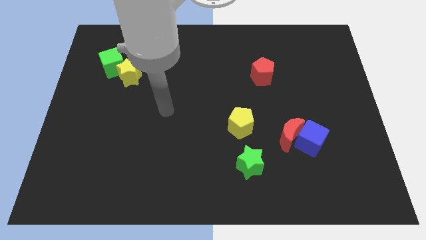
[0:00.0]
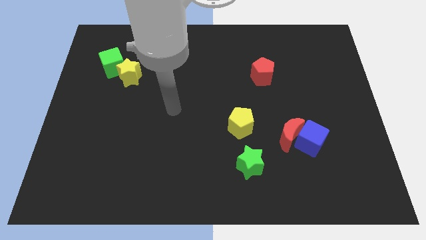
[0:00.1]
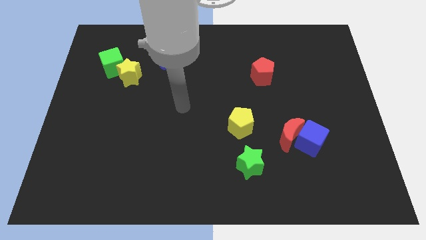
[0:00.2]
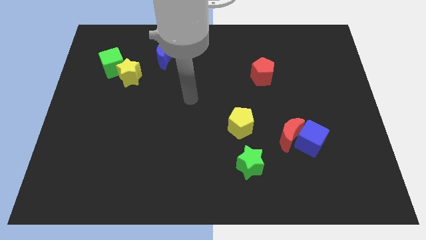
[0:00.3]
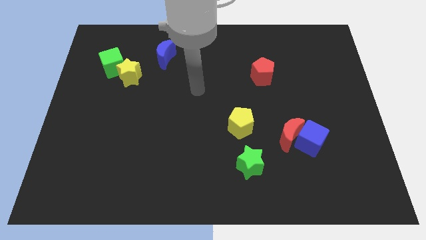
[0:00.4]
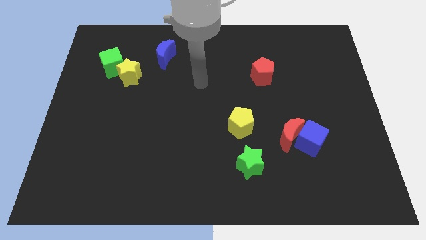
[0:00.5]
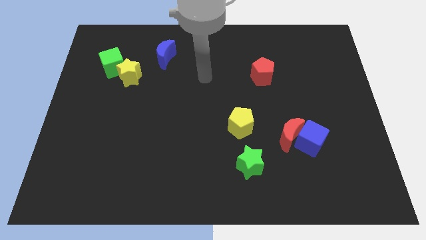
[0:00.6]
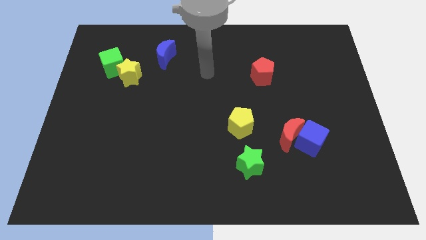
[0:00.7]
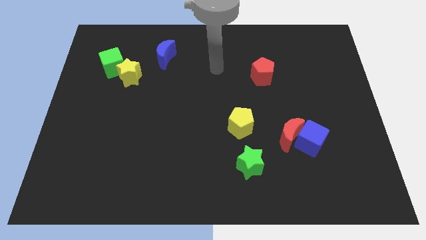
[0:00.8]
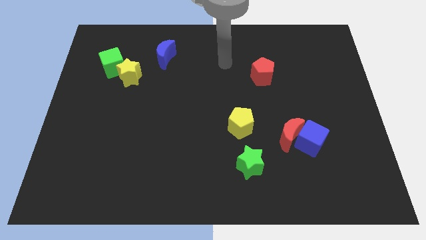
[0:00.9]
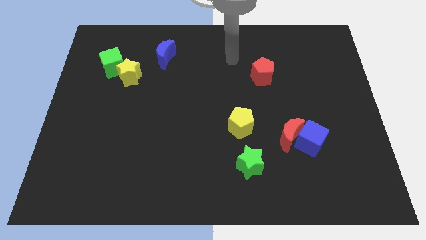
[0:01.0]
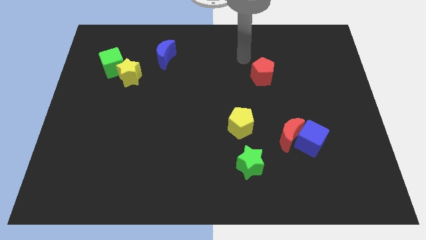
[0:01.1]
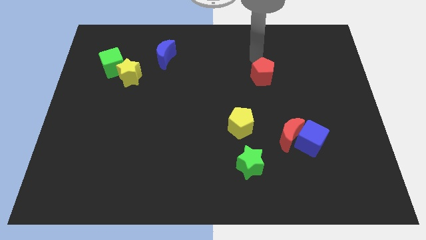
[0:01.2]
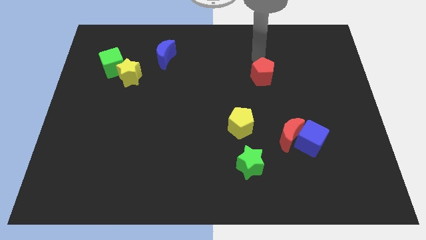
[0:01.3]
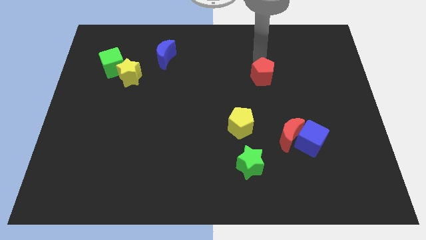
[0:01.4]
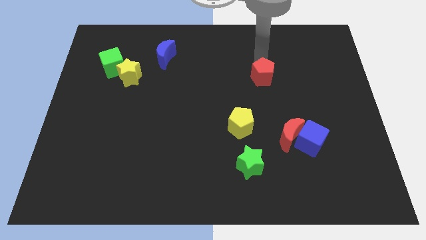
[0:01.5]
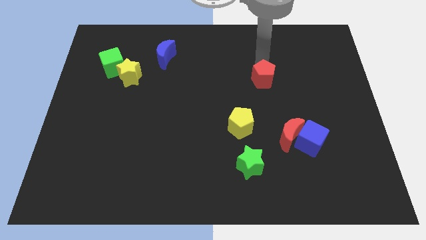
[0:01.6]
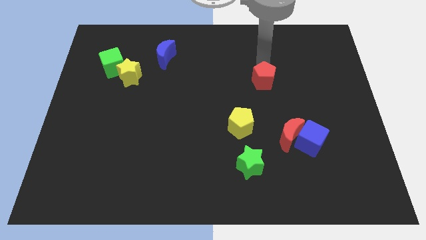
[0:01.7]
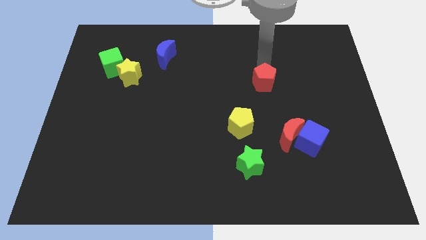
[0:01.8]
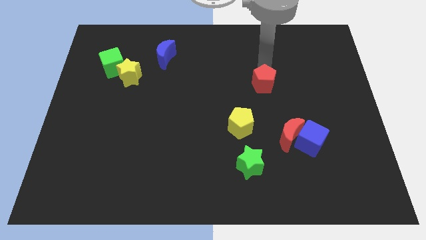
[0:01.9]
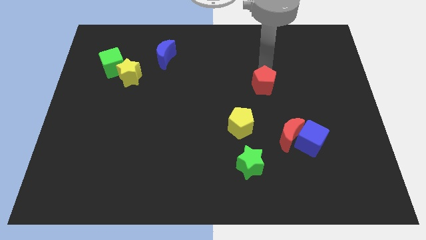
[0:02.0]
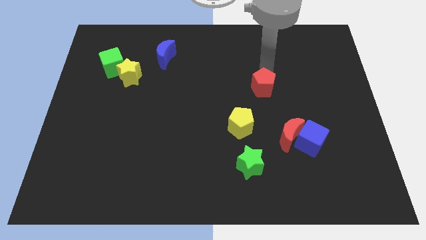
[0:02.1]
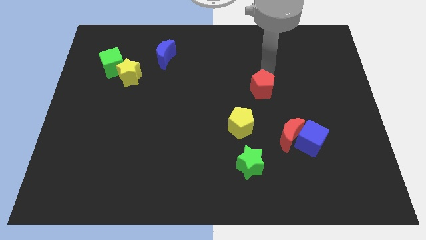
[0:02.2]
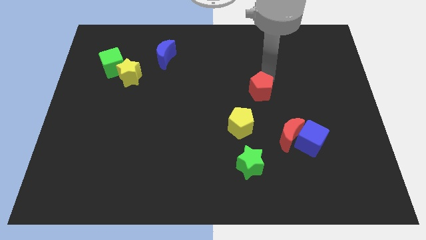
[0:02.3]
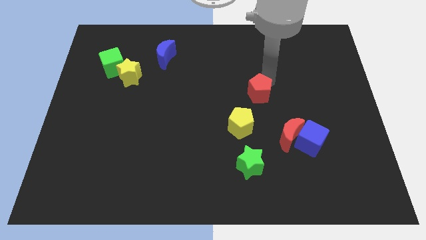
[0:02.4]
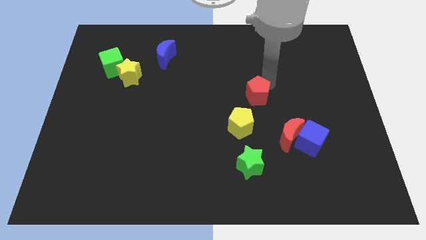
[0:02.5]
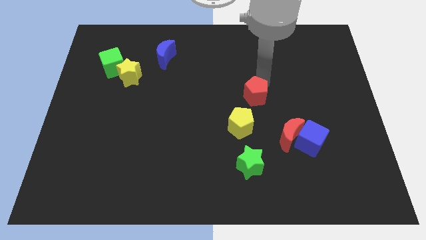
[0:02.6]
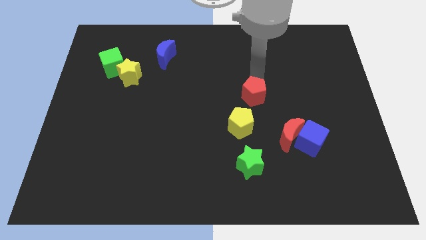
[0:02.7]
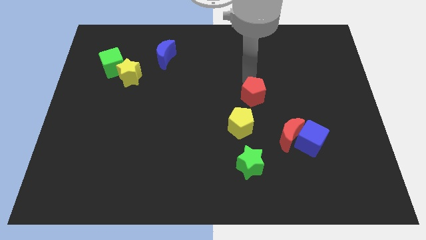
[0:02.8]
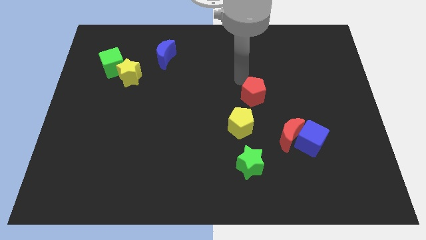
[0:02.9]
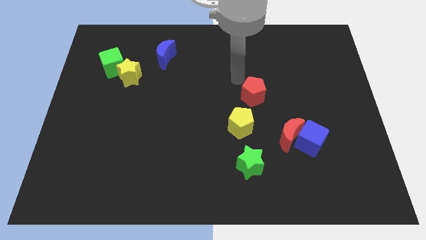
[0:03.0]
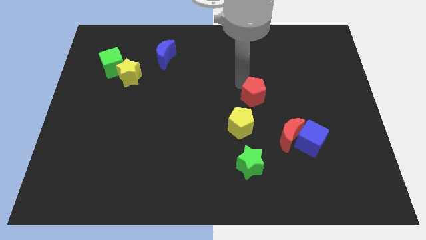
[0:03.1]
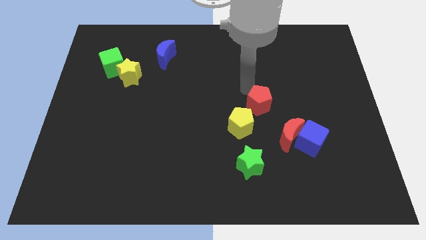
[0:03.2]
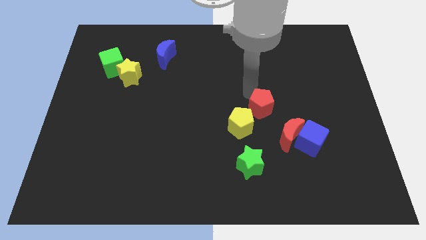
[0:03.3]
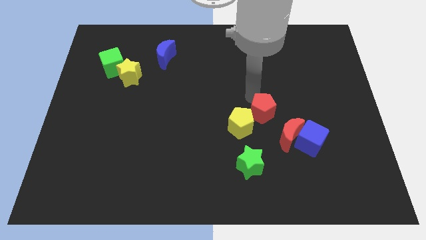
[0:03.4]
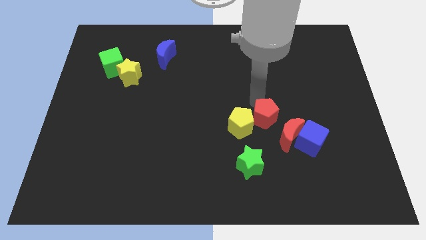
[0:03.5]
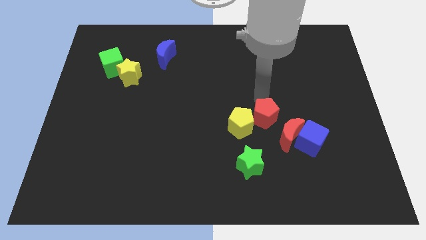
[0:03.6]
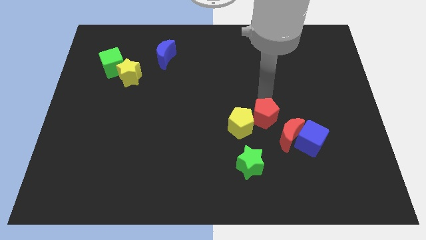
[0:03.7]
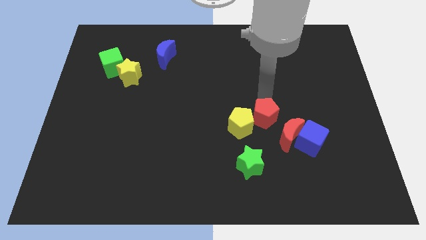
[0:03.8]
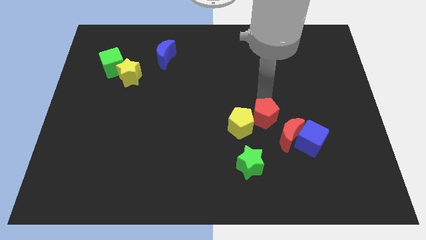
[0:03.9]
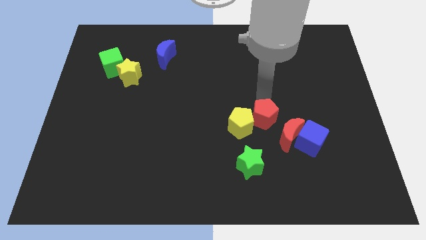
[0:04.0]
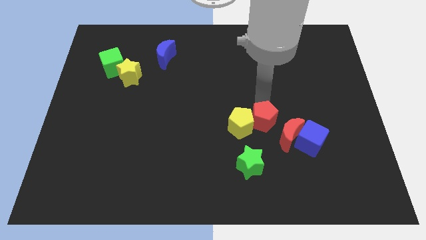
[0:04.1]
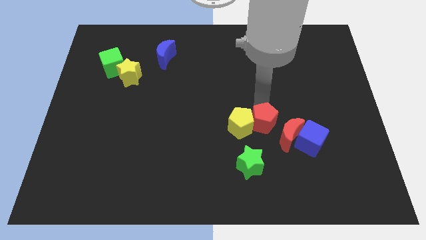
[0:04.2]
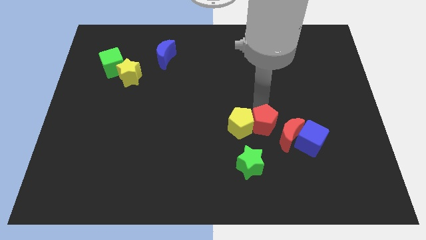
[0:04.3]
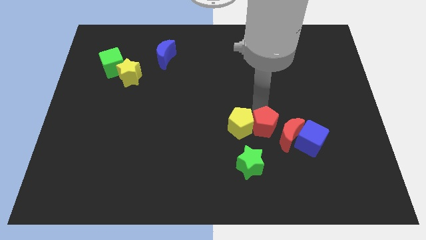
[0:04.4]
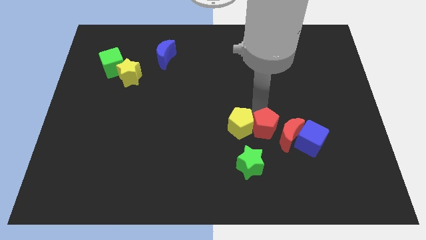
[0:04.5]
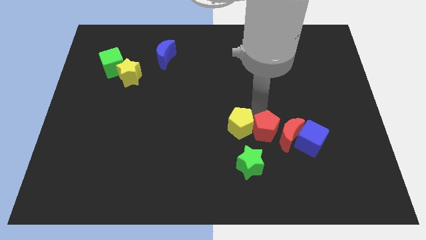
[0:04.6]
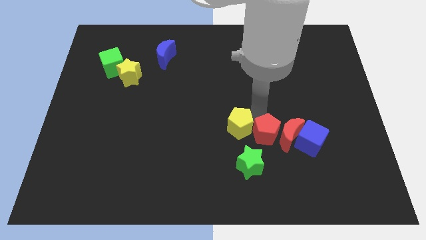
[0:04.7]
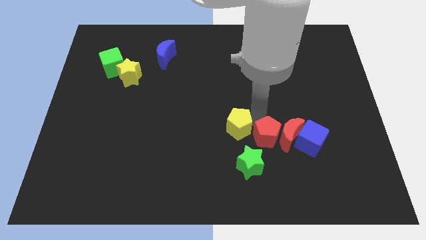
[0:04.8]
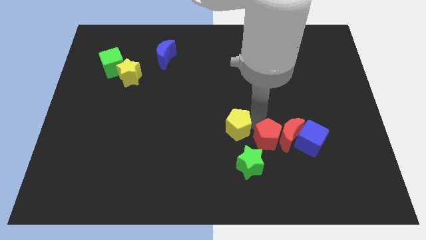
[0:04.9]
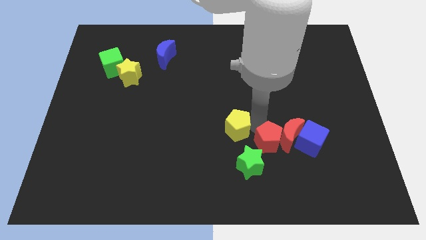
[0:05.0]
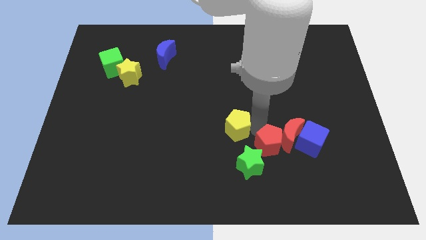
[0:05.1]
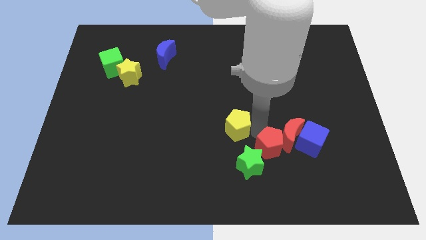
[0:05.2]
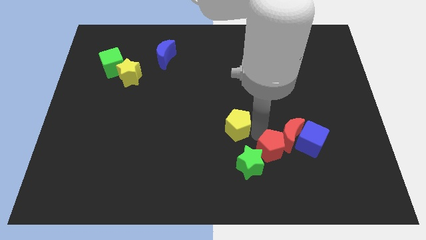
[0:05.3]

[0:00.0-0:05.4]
slide the red pentagon below the red moon

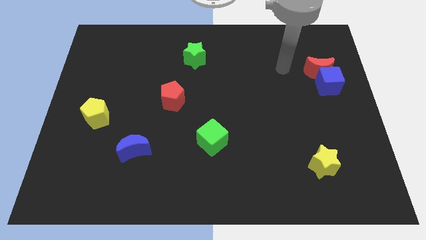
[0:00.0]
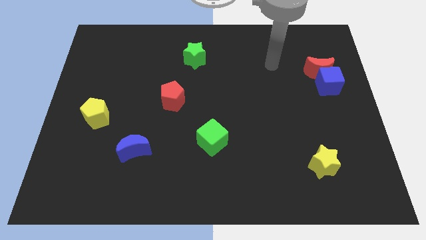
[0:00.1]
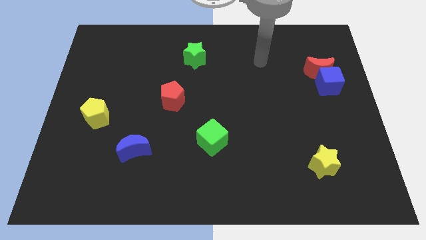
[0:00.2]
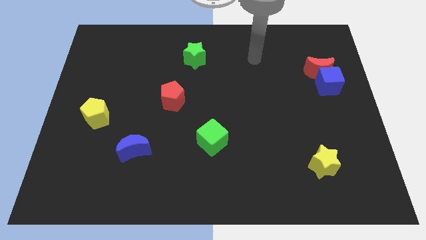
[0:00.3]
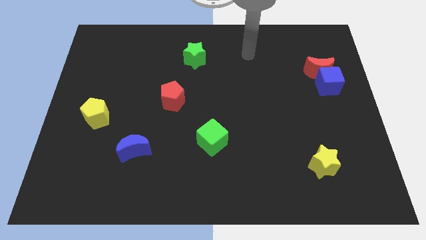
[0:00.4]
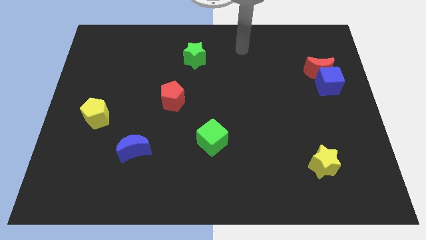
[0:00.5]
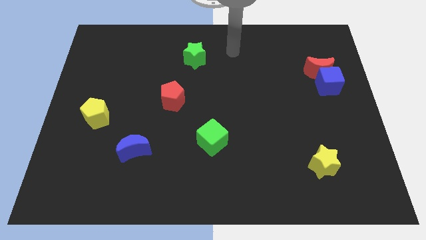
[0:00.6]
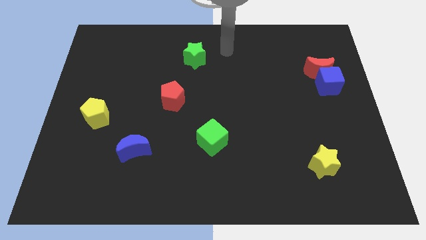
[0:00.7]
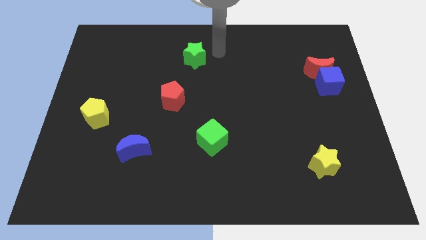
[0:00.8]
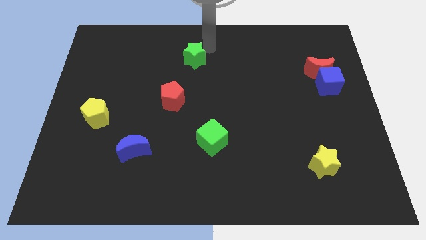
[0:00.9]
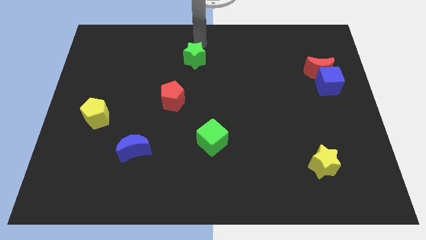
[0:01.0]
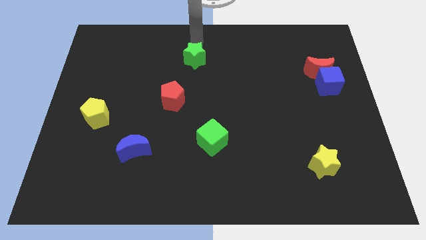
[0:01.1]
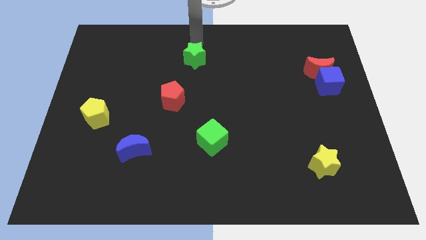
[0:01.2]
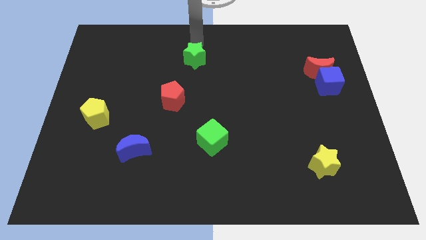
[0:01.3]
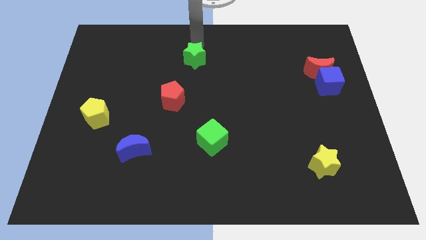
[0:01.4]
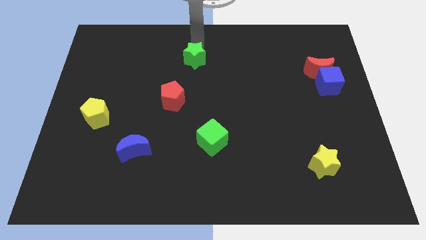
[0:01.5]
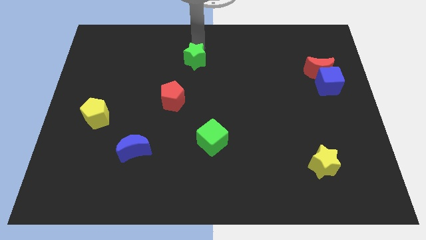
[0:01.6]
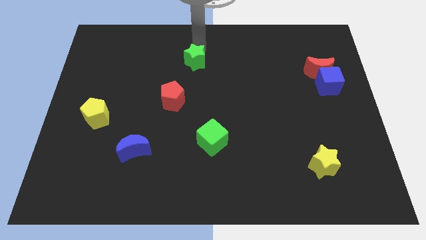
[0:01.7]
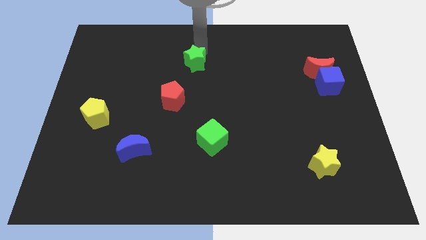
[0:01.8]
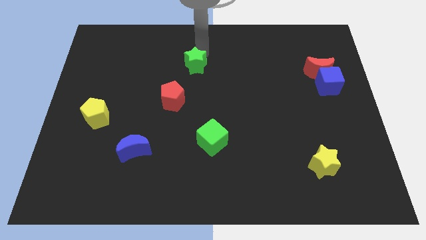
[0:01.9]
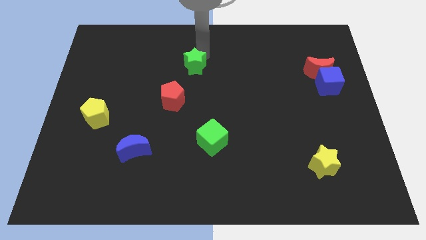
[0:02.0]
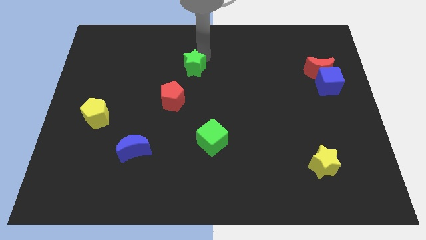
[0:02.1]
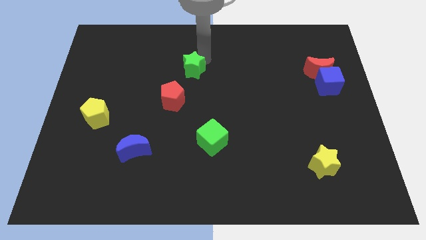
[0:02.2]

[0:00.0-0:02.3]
put the green star diagonally up and to the right of the red pentagon

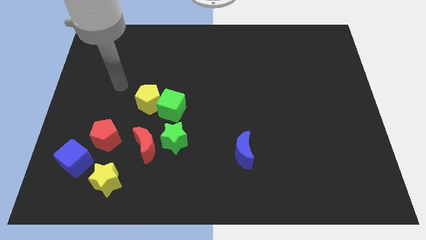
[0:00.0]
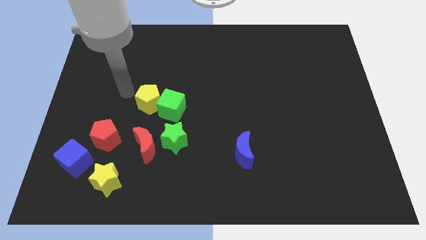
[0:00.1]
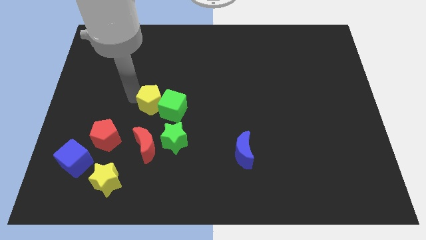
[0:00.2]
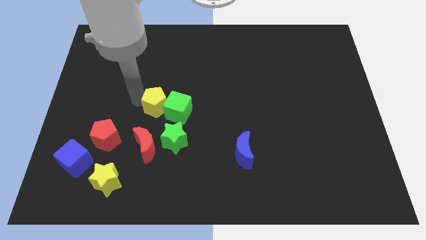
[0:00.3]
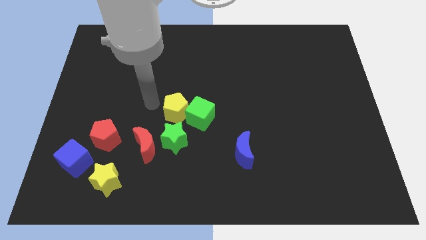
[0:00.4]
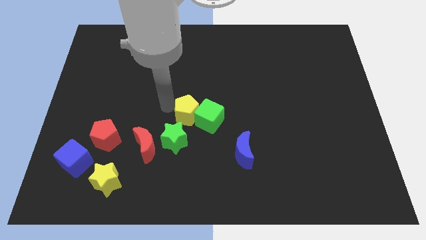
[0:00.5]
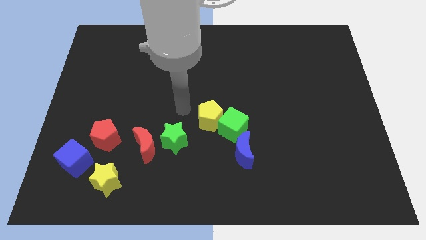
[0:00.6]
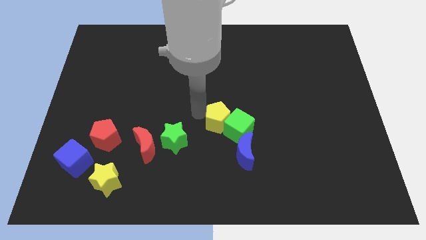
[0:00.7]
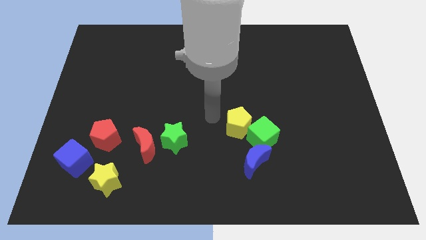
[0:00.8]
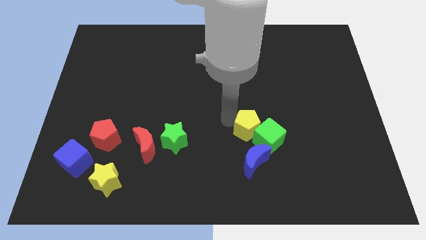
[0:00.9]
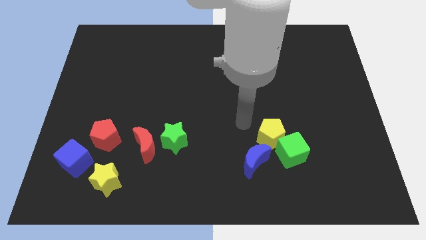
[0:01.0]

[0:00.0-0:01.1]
move the green cube just right of the blue moon
